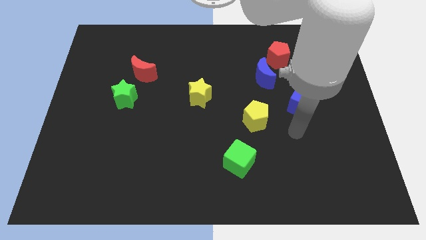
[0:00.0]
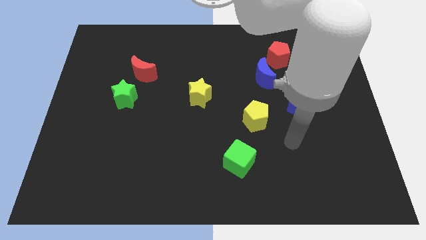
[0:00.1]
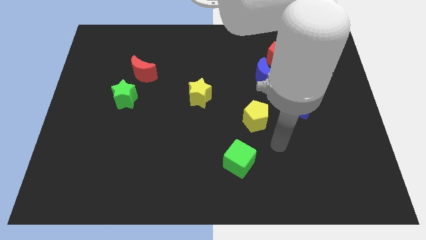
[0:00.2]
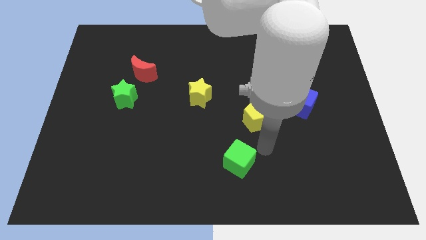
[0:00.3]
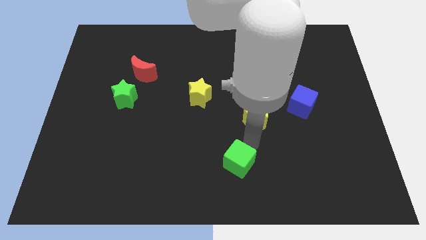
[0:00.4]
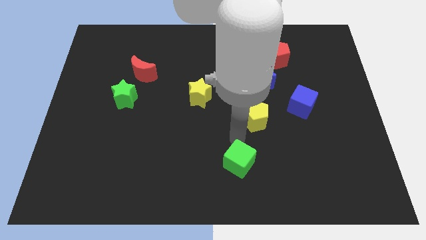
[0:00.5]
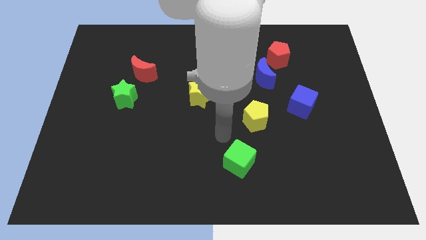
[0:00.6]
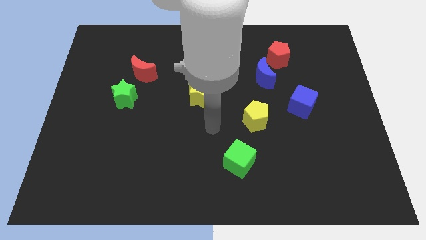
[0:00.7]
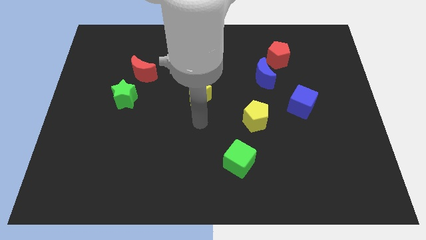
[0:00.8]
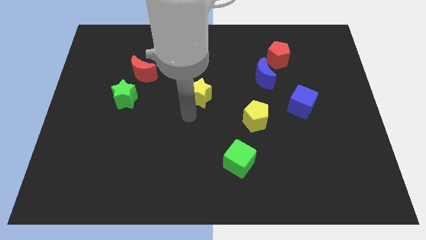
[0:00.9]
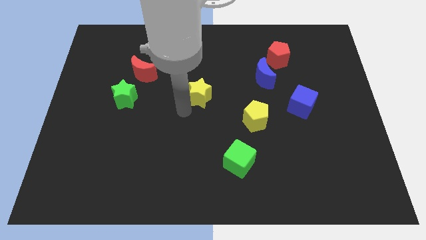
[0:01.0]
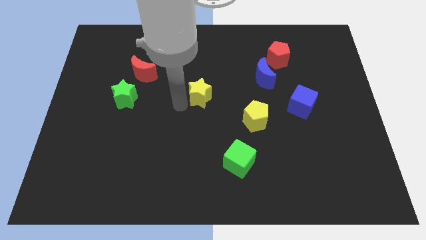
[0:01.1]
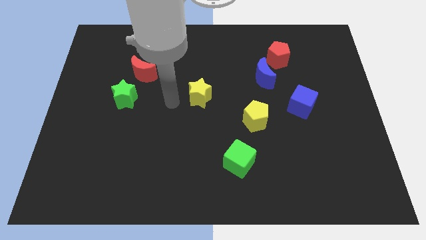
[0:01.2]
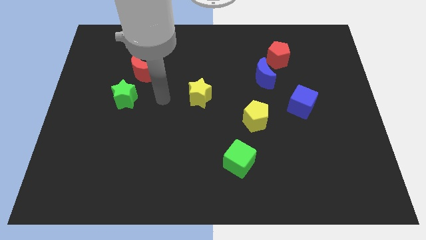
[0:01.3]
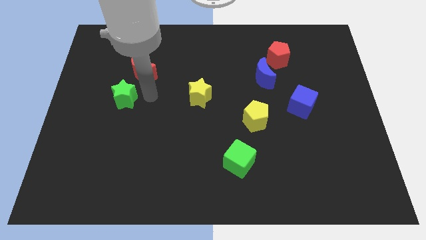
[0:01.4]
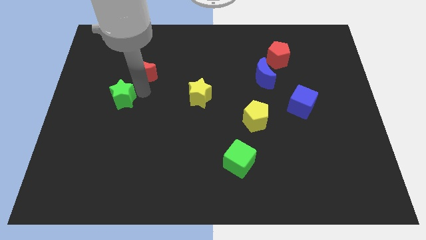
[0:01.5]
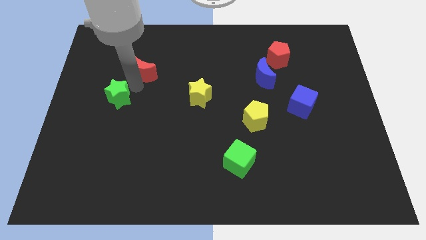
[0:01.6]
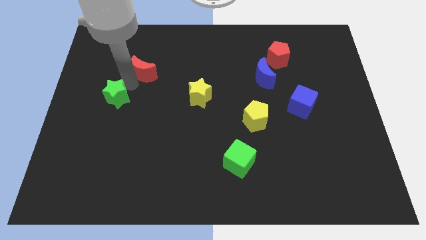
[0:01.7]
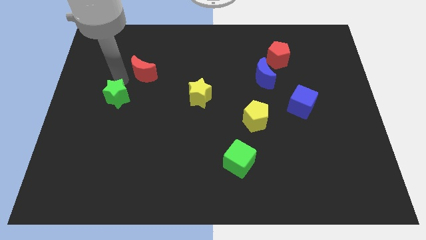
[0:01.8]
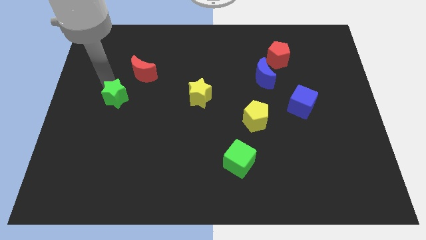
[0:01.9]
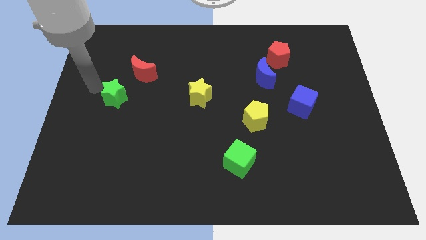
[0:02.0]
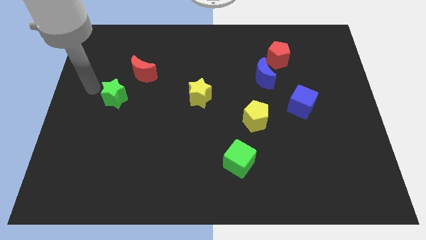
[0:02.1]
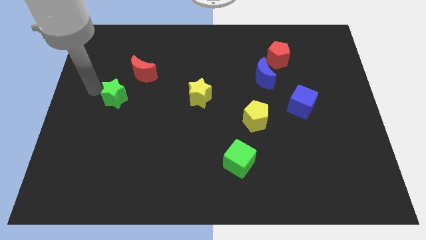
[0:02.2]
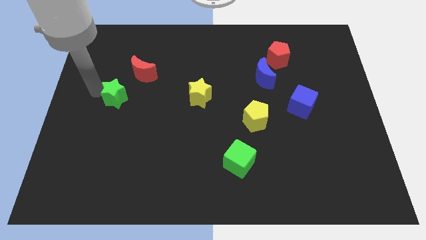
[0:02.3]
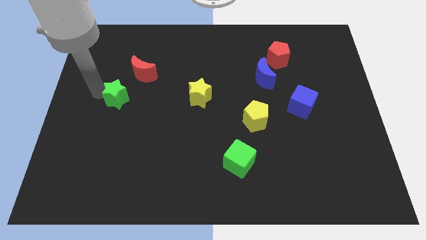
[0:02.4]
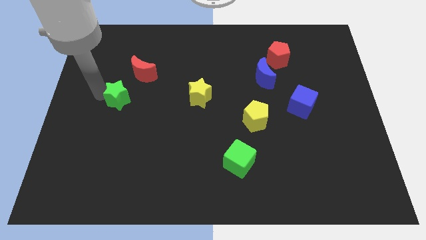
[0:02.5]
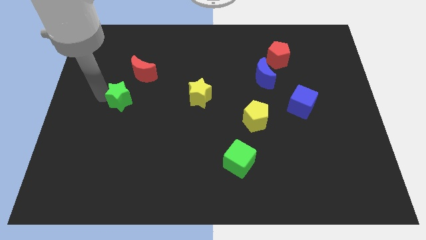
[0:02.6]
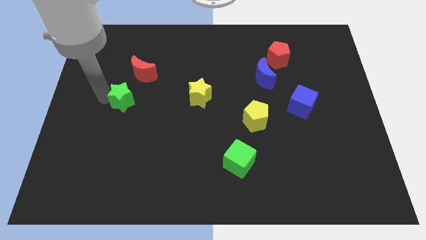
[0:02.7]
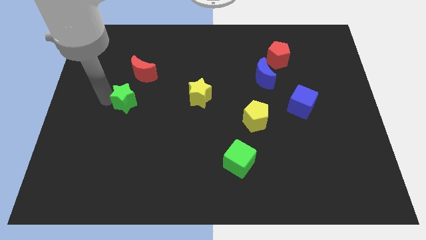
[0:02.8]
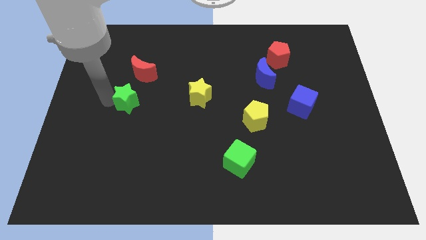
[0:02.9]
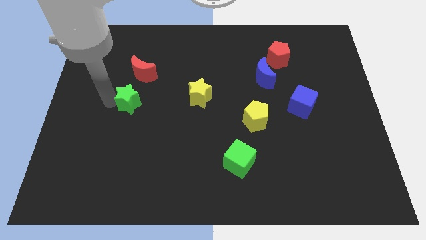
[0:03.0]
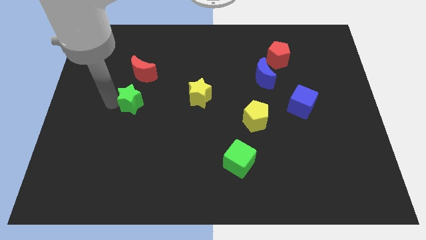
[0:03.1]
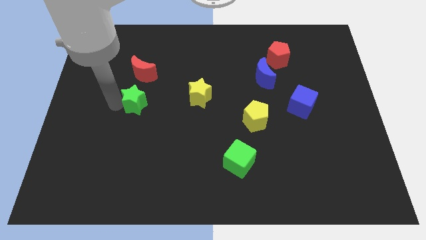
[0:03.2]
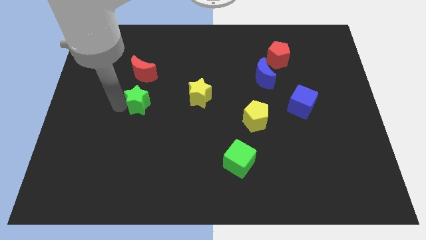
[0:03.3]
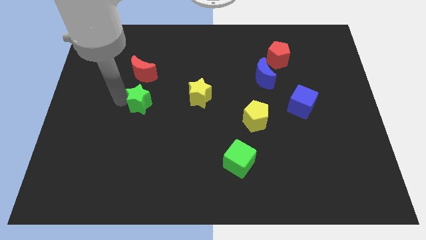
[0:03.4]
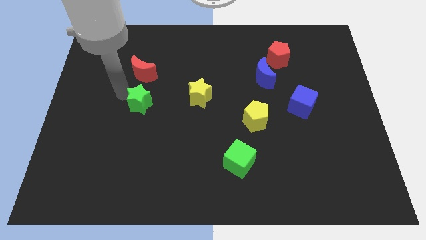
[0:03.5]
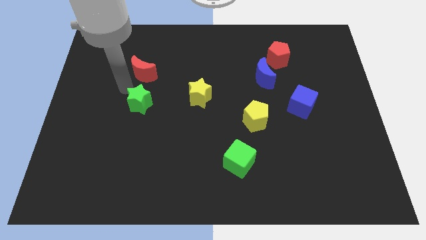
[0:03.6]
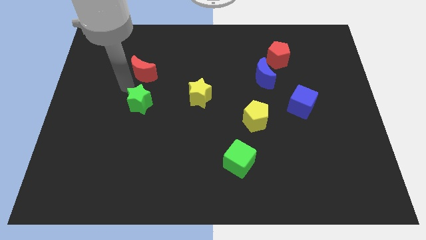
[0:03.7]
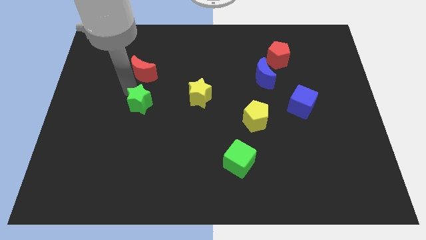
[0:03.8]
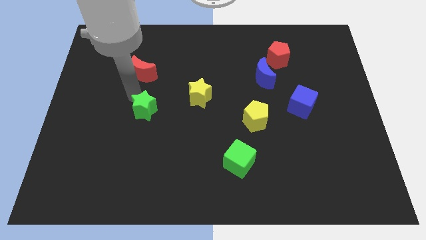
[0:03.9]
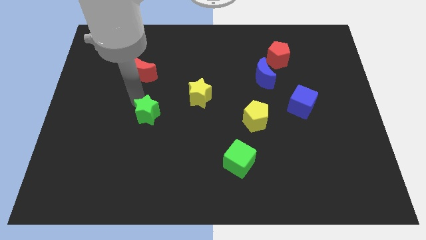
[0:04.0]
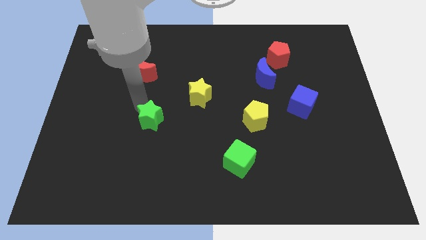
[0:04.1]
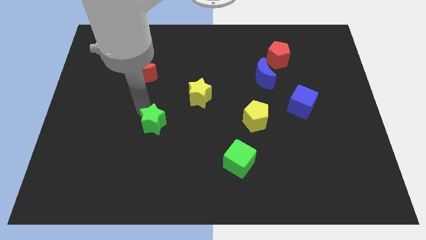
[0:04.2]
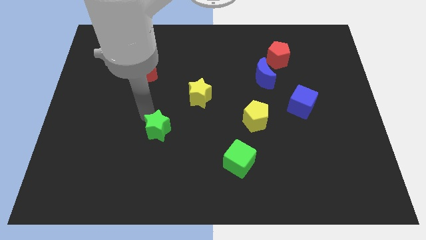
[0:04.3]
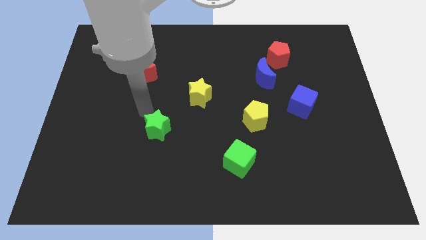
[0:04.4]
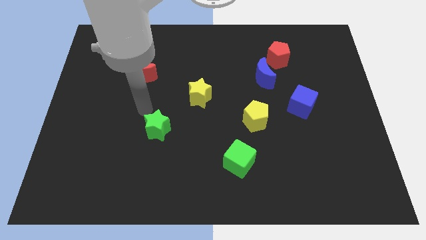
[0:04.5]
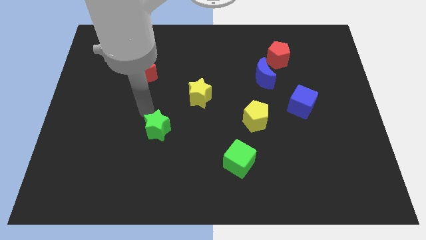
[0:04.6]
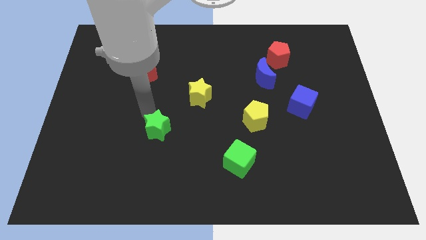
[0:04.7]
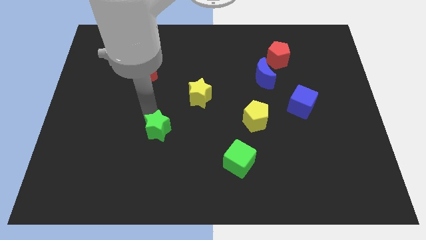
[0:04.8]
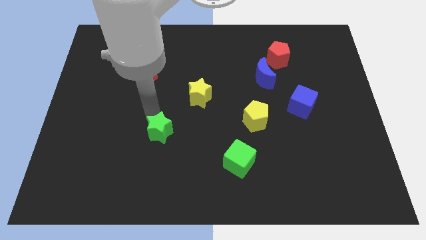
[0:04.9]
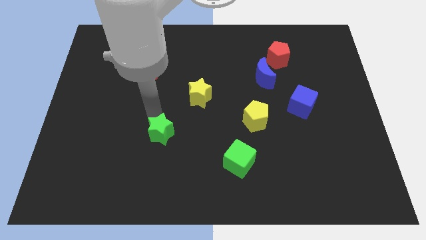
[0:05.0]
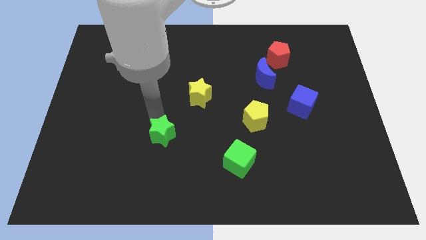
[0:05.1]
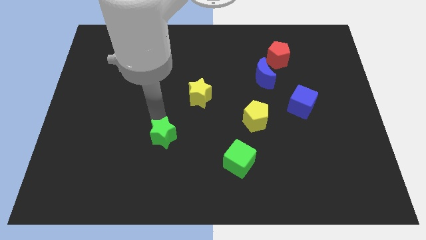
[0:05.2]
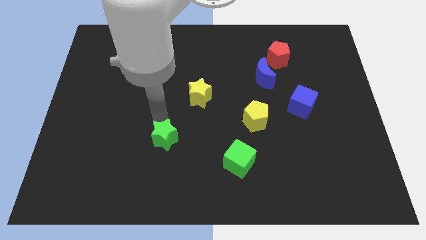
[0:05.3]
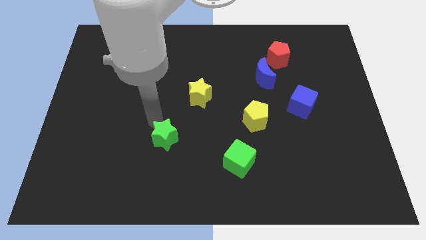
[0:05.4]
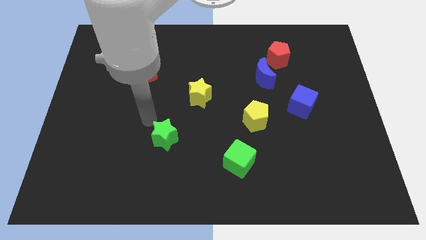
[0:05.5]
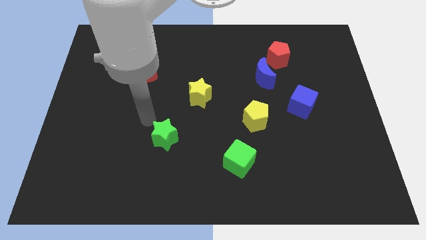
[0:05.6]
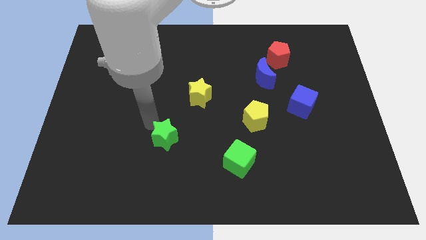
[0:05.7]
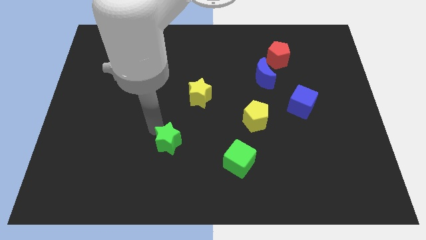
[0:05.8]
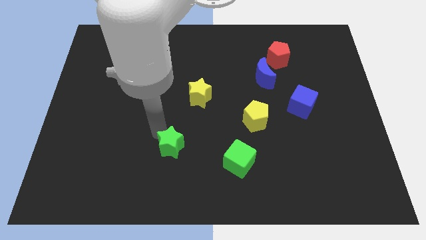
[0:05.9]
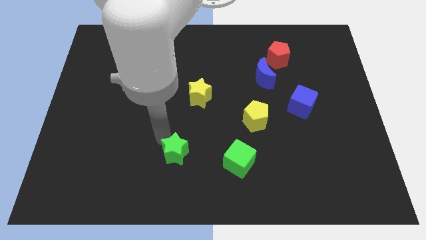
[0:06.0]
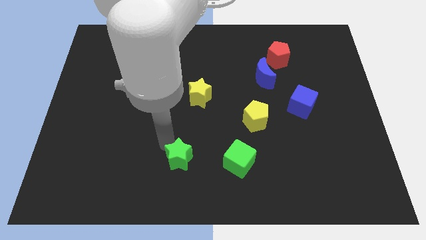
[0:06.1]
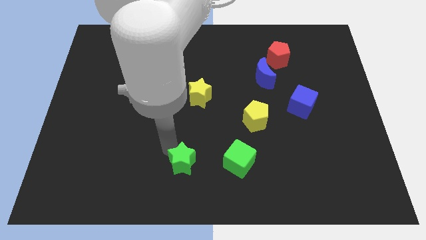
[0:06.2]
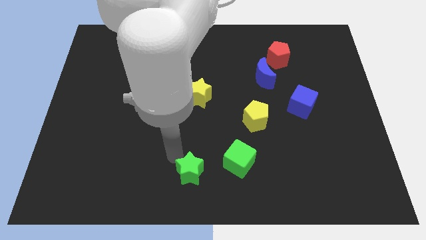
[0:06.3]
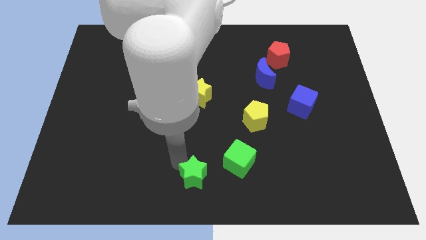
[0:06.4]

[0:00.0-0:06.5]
put the green star to the bottom left side of the green cube
